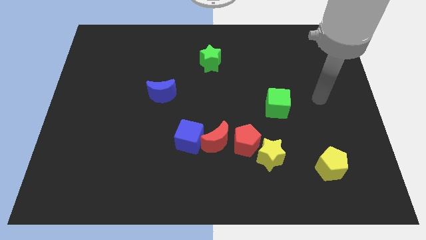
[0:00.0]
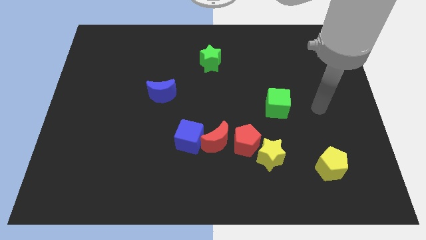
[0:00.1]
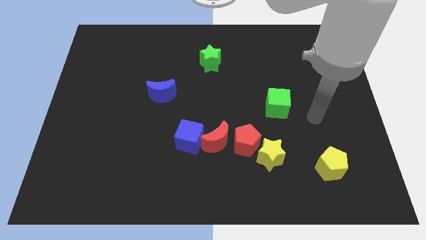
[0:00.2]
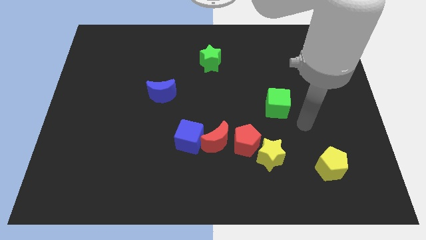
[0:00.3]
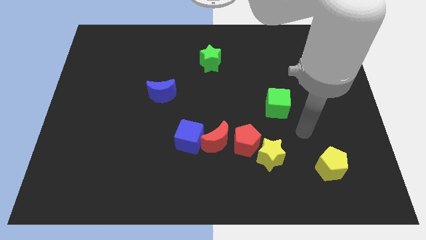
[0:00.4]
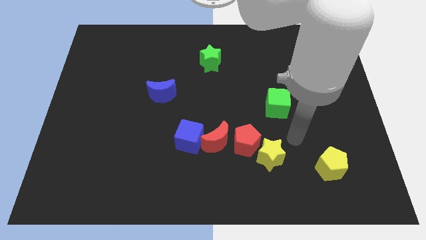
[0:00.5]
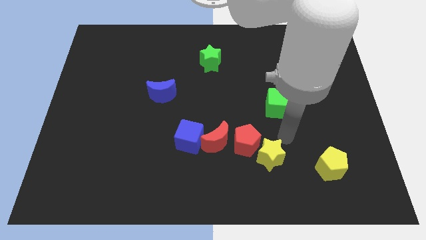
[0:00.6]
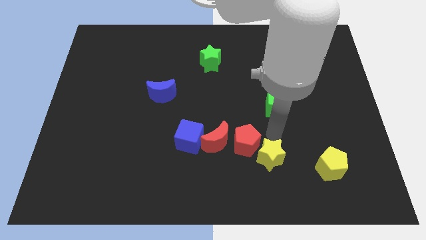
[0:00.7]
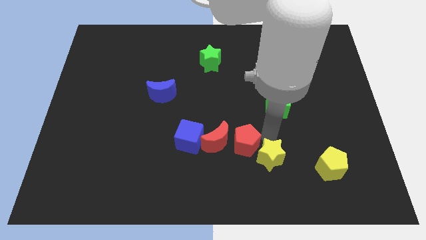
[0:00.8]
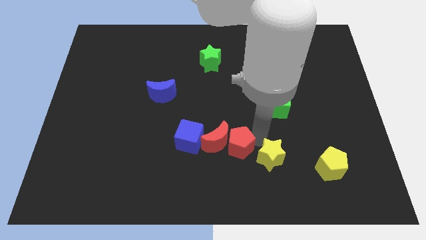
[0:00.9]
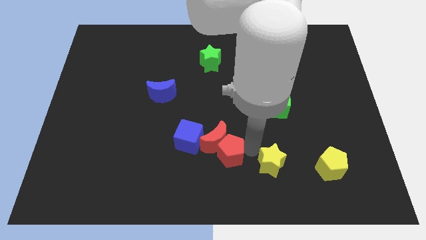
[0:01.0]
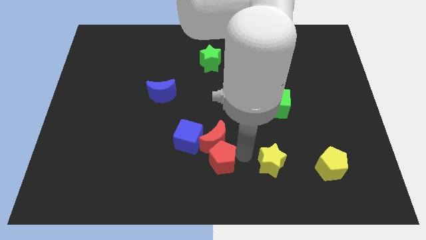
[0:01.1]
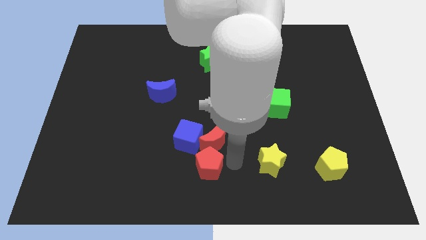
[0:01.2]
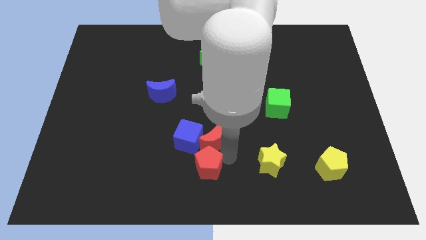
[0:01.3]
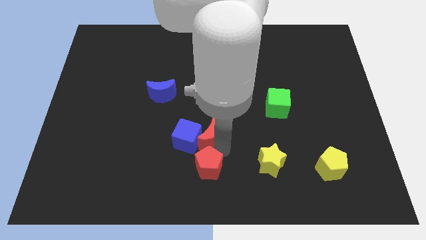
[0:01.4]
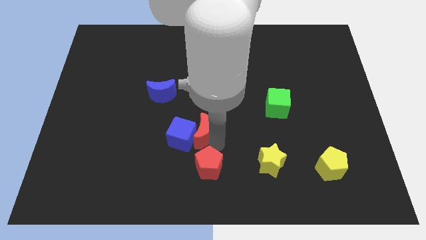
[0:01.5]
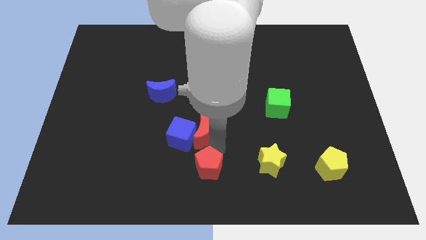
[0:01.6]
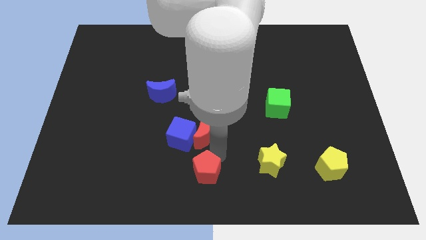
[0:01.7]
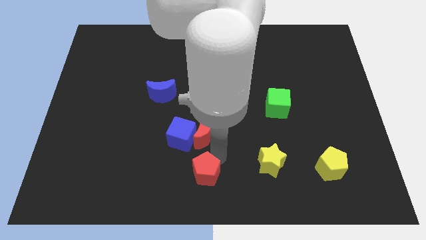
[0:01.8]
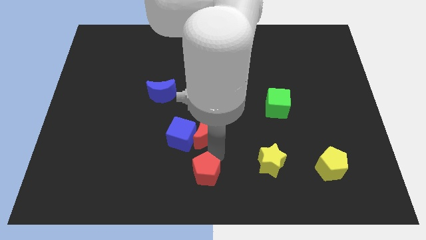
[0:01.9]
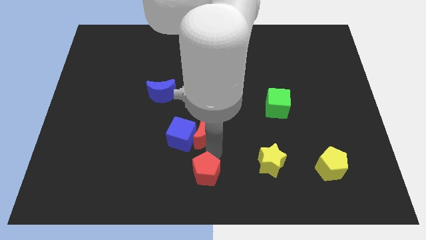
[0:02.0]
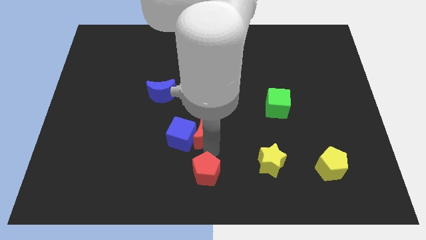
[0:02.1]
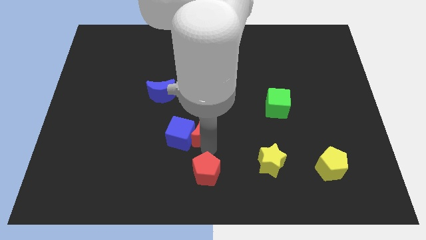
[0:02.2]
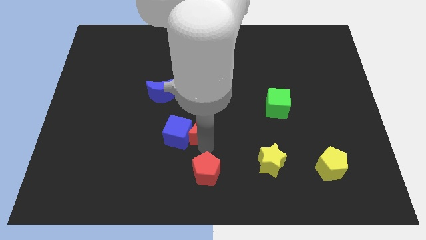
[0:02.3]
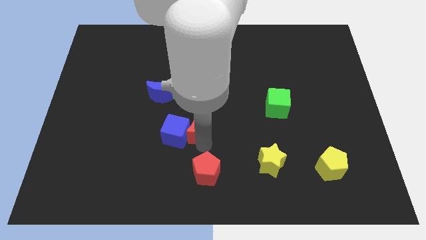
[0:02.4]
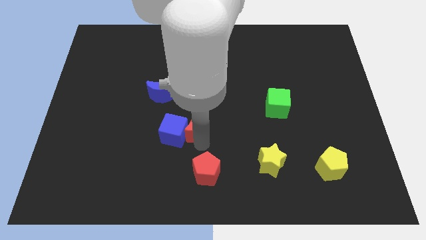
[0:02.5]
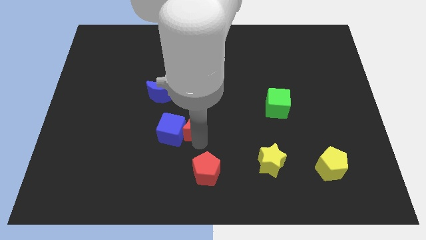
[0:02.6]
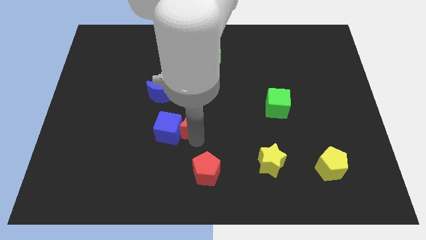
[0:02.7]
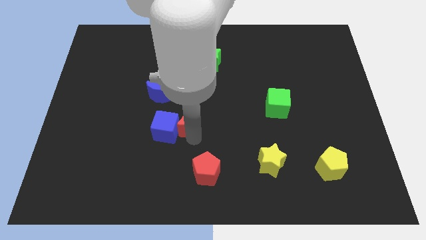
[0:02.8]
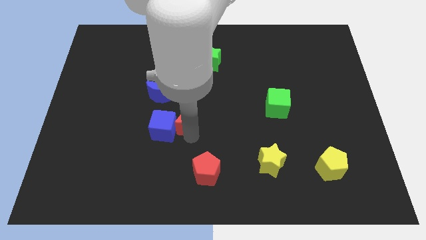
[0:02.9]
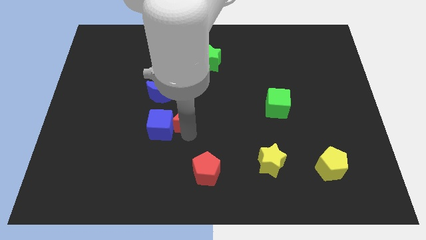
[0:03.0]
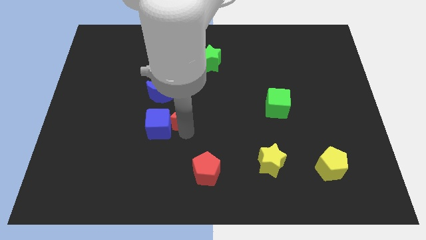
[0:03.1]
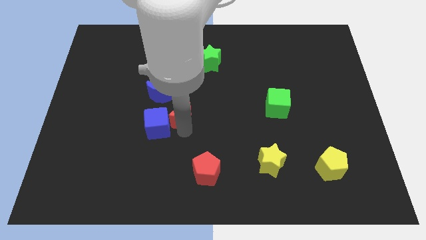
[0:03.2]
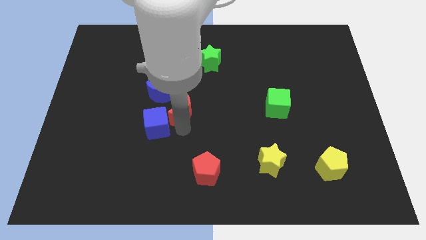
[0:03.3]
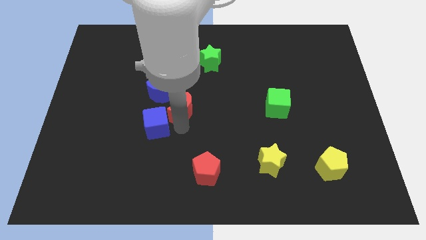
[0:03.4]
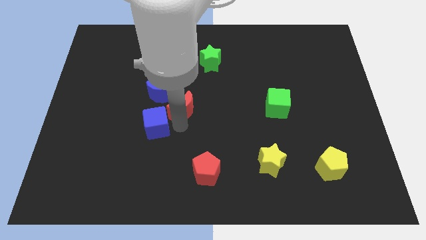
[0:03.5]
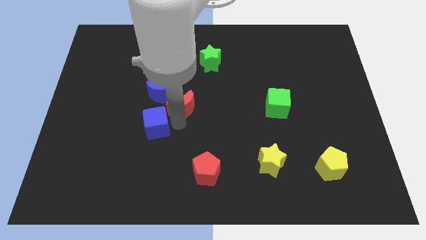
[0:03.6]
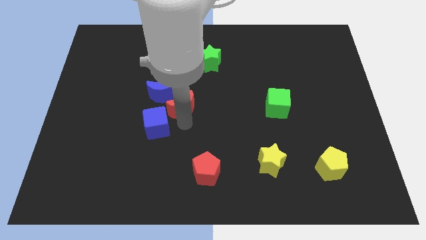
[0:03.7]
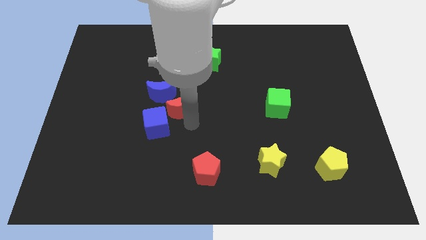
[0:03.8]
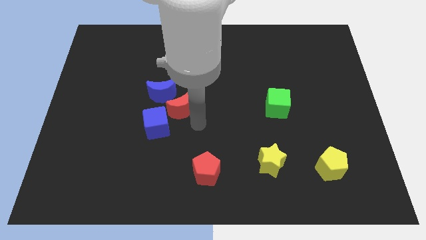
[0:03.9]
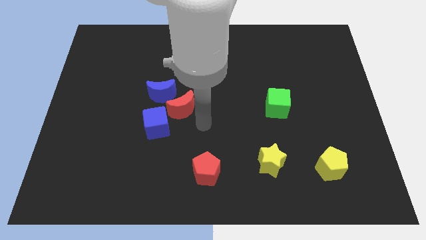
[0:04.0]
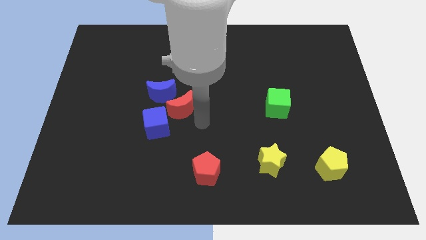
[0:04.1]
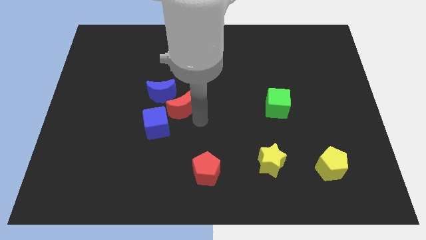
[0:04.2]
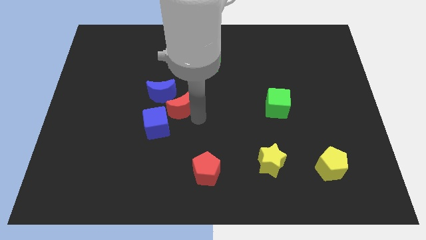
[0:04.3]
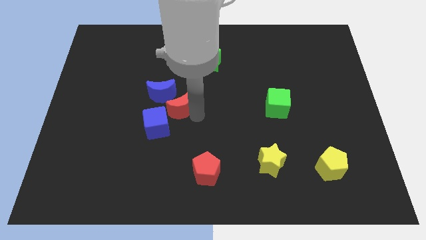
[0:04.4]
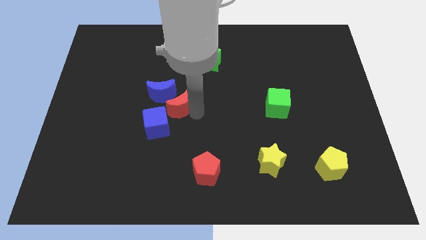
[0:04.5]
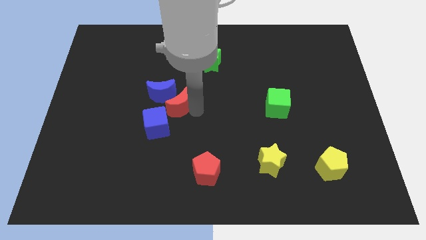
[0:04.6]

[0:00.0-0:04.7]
move the red moon towards the blue moon

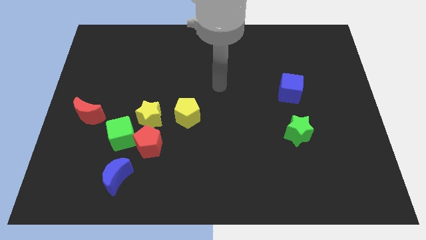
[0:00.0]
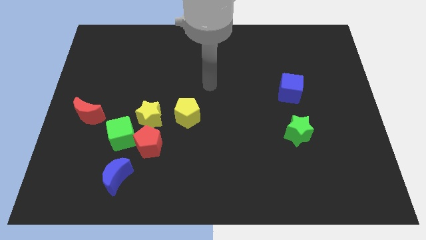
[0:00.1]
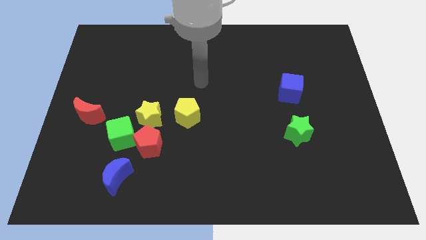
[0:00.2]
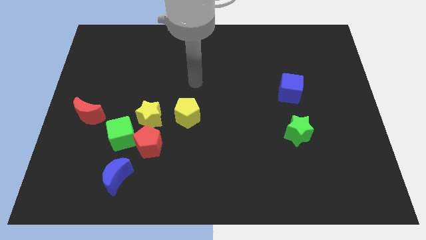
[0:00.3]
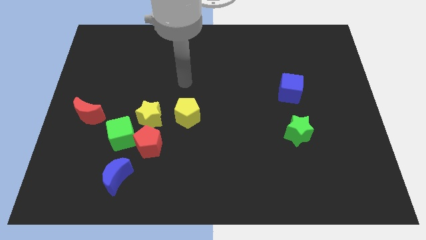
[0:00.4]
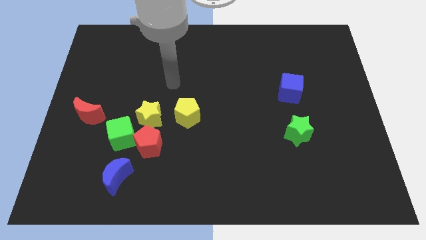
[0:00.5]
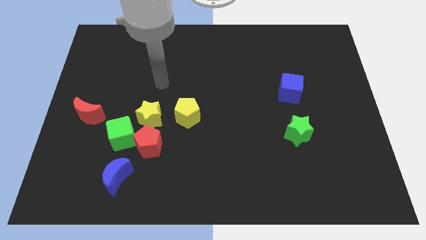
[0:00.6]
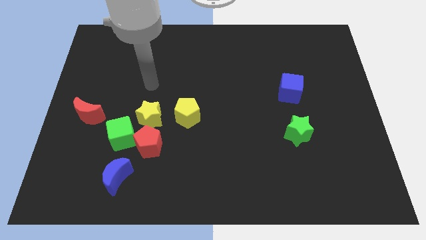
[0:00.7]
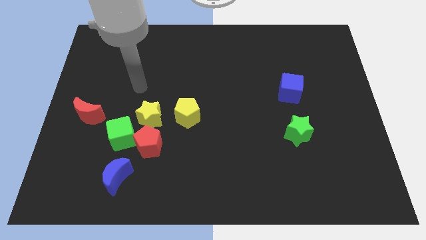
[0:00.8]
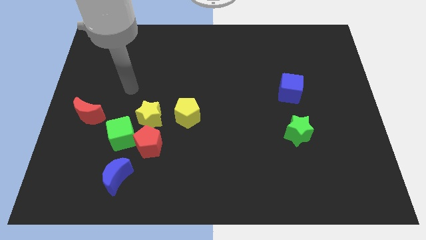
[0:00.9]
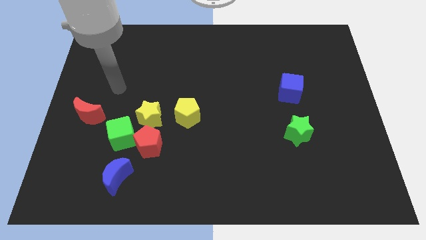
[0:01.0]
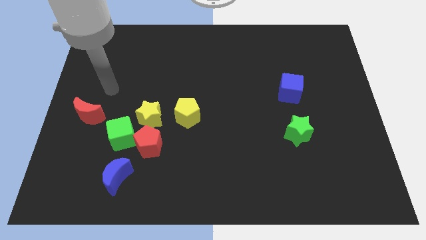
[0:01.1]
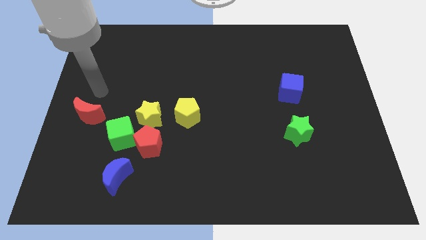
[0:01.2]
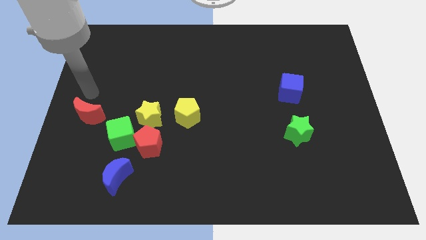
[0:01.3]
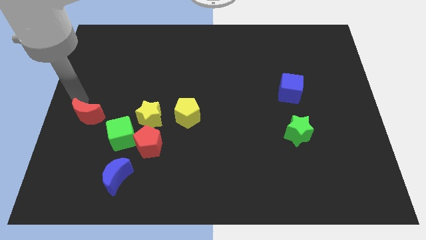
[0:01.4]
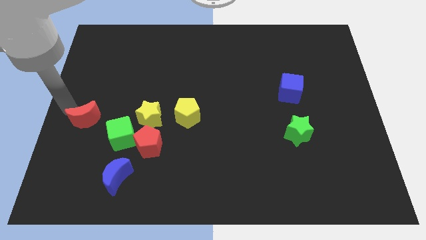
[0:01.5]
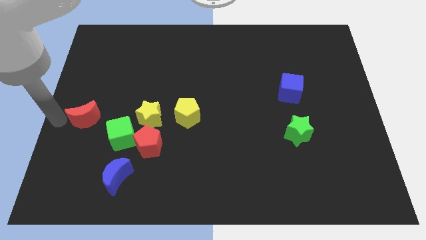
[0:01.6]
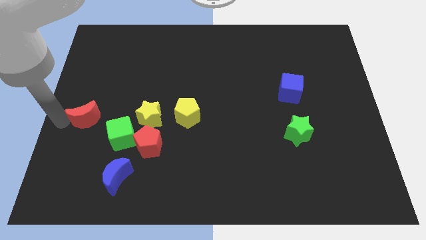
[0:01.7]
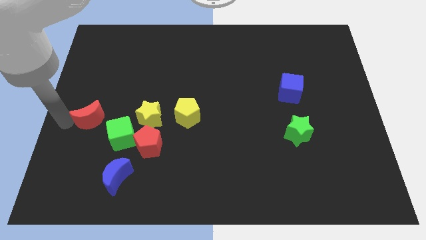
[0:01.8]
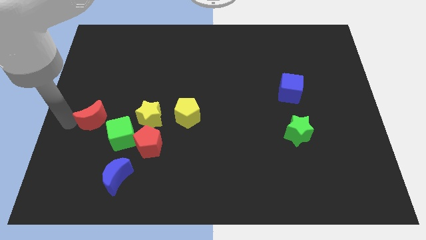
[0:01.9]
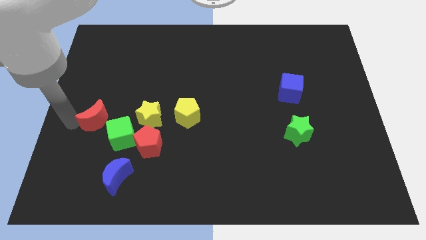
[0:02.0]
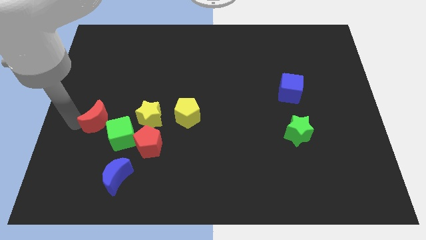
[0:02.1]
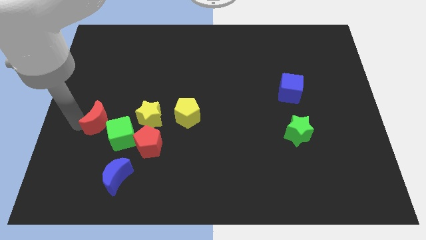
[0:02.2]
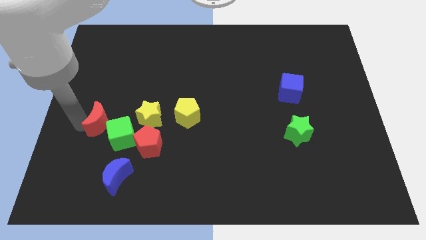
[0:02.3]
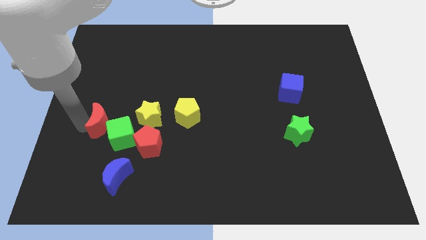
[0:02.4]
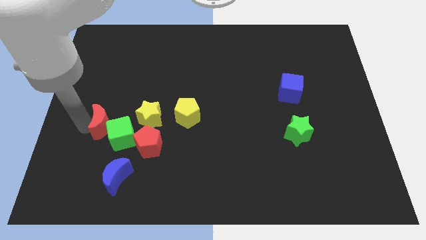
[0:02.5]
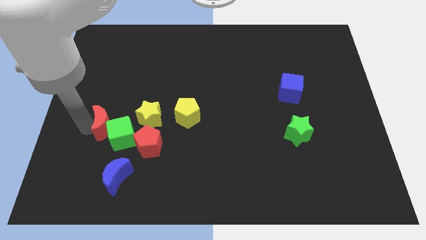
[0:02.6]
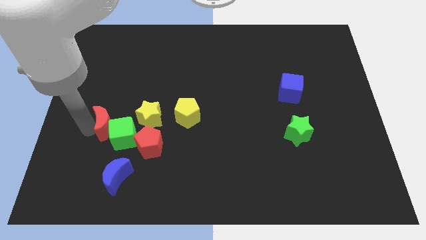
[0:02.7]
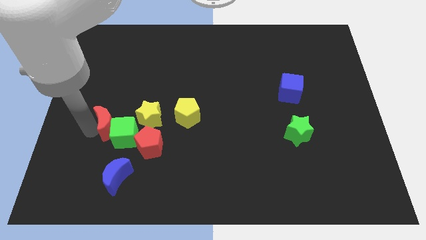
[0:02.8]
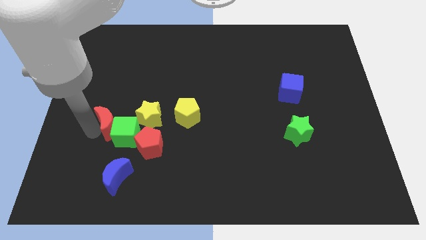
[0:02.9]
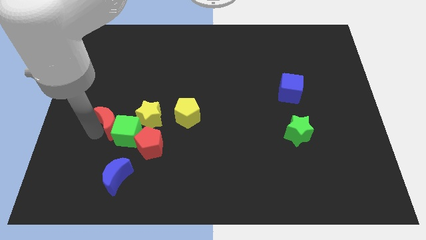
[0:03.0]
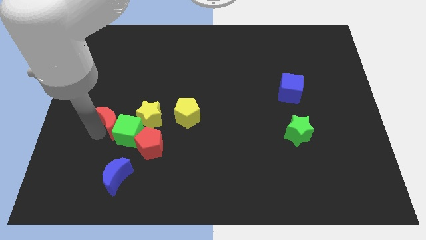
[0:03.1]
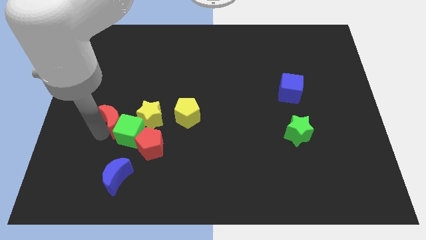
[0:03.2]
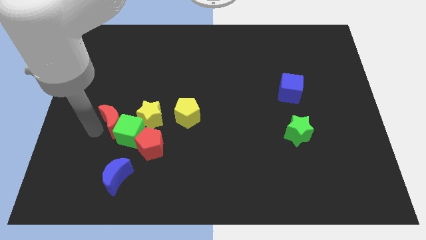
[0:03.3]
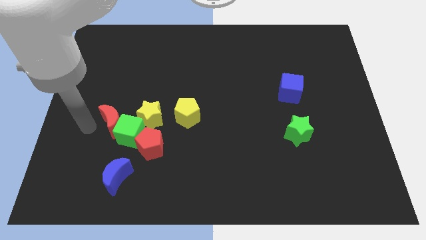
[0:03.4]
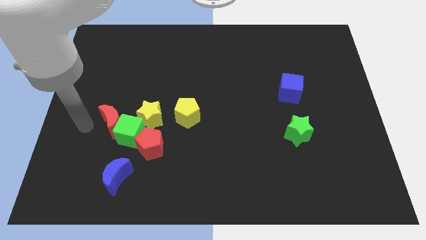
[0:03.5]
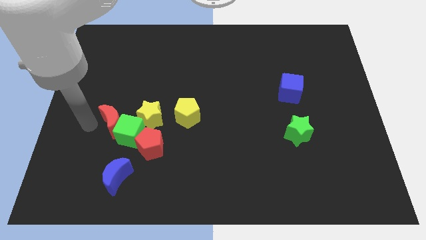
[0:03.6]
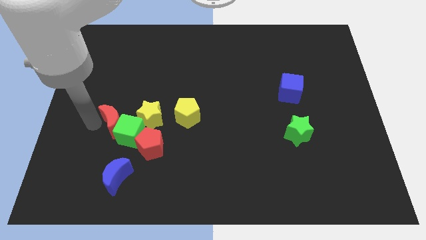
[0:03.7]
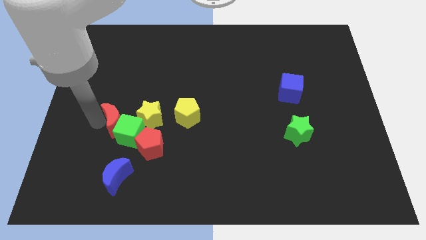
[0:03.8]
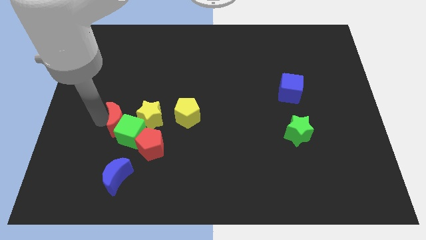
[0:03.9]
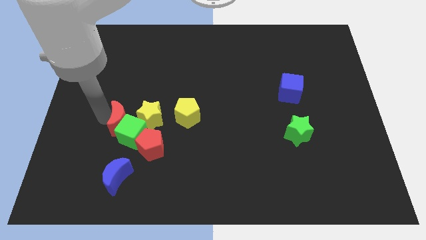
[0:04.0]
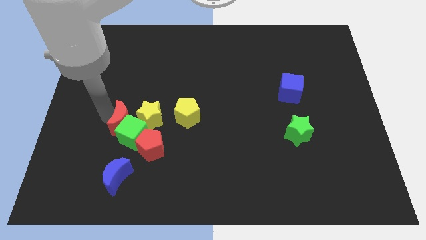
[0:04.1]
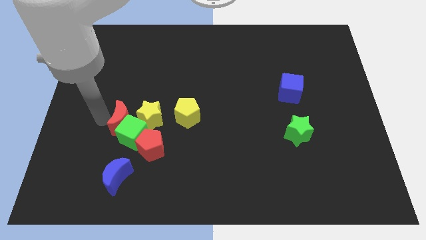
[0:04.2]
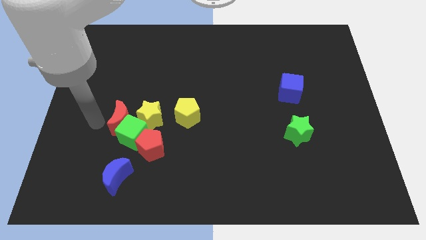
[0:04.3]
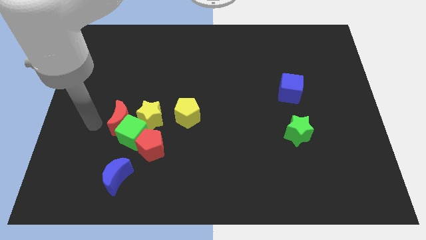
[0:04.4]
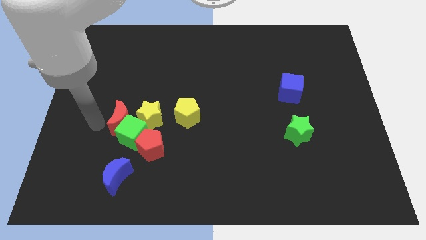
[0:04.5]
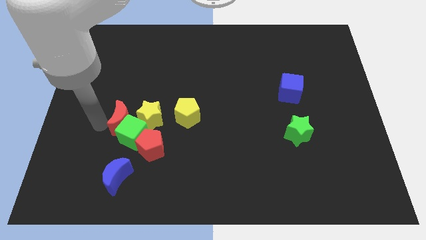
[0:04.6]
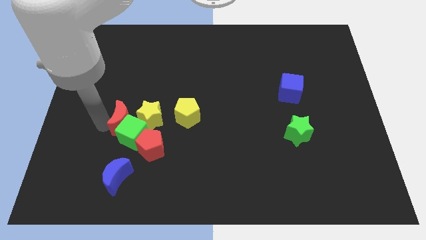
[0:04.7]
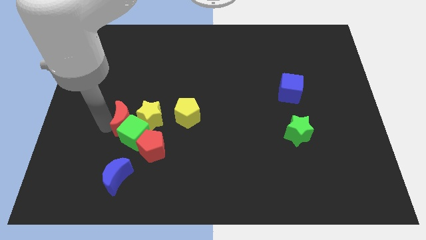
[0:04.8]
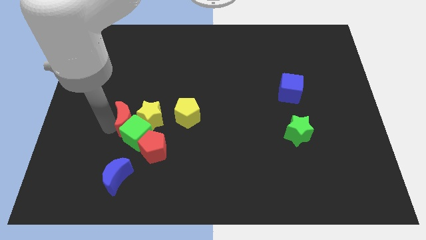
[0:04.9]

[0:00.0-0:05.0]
slide the red moon close to the yellow star
